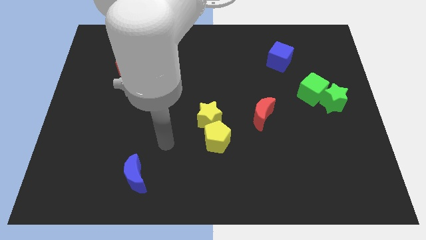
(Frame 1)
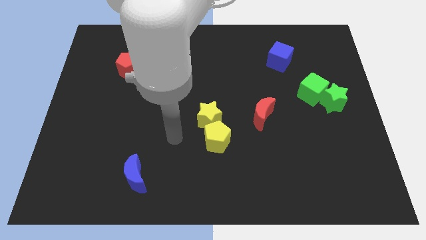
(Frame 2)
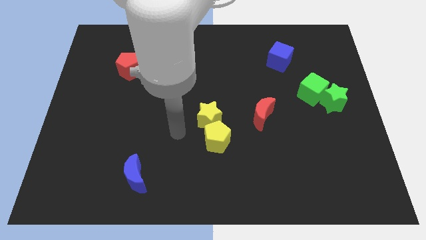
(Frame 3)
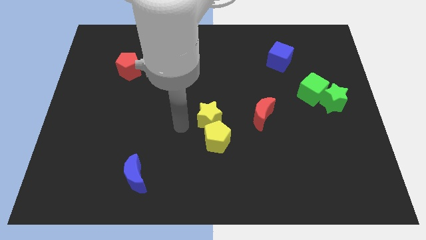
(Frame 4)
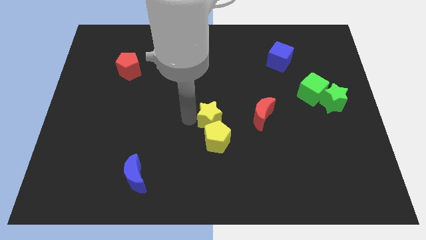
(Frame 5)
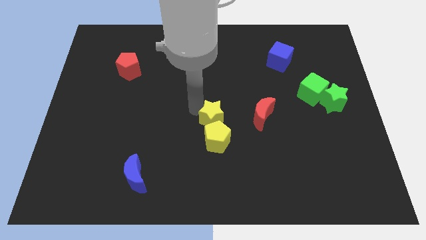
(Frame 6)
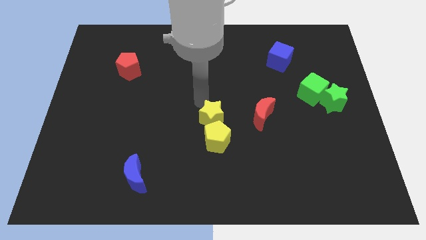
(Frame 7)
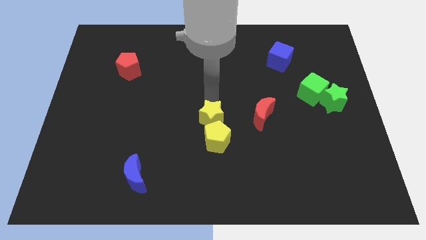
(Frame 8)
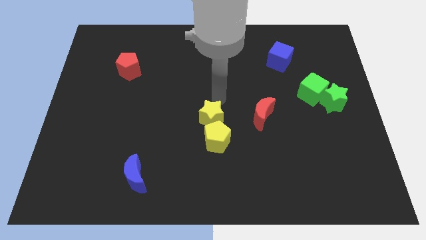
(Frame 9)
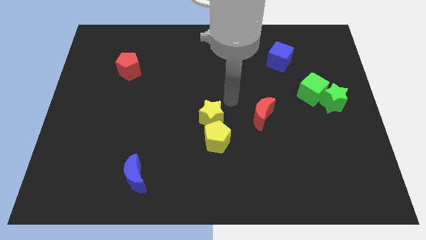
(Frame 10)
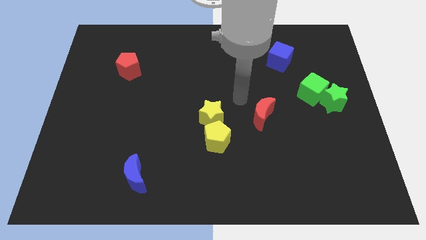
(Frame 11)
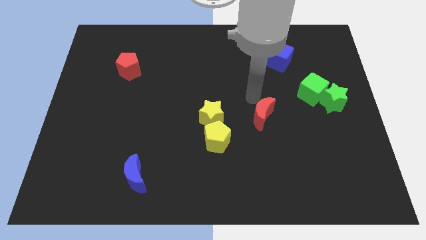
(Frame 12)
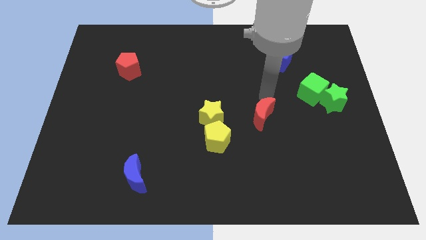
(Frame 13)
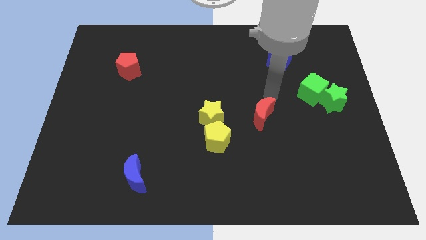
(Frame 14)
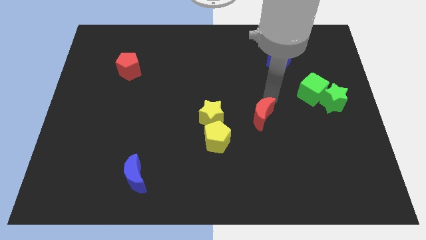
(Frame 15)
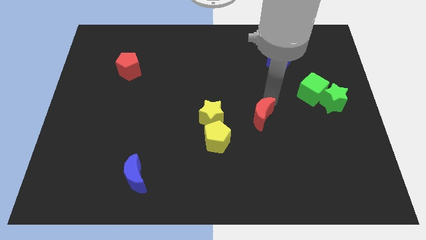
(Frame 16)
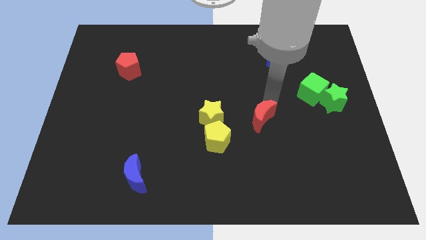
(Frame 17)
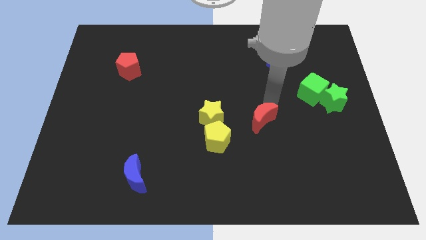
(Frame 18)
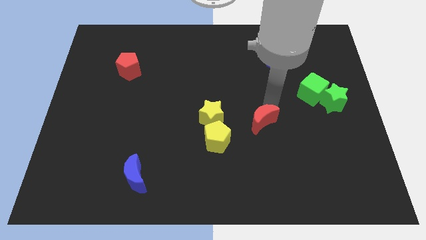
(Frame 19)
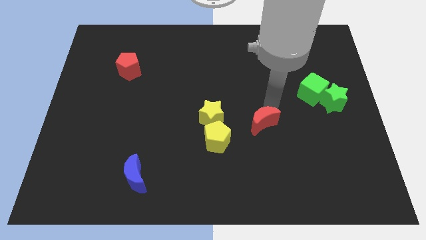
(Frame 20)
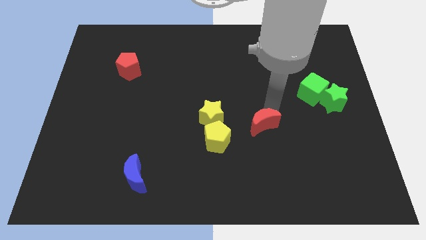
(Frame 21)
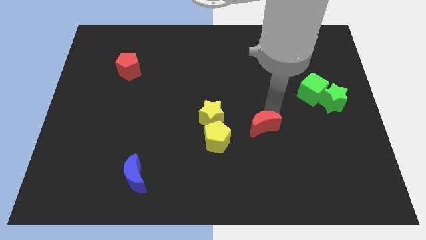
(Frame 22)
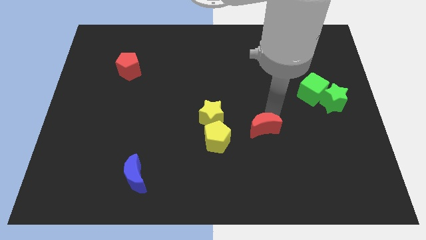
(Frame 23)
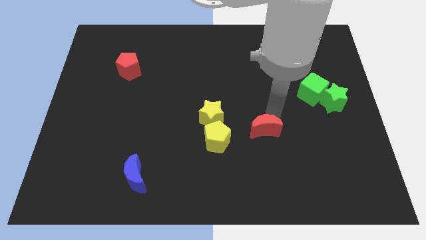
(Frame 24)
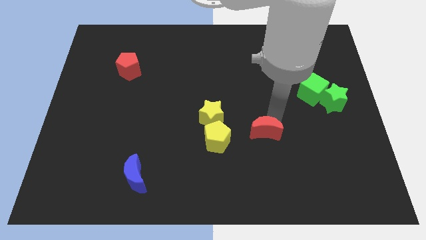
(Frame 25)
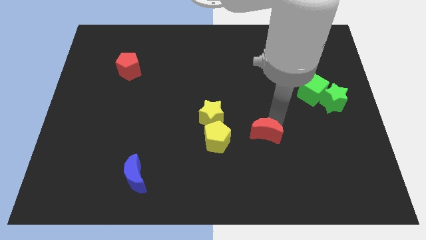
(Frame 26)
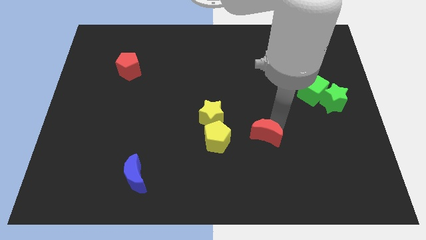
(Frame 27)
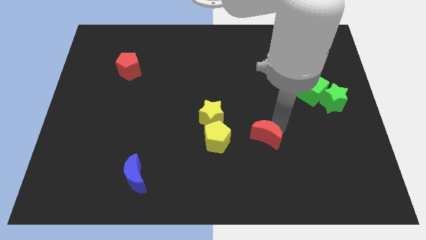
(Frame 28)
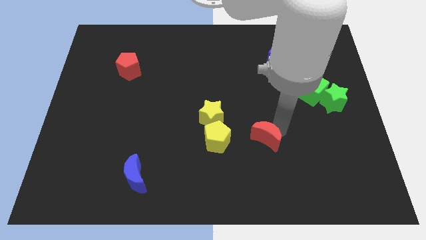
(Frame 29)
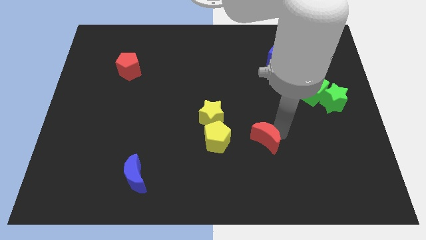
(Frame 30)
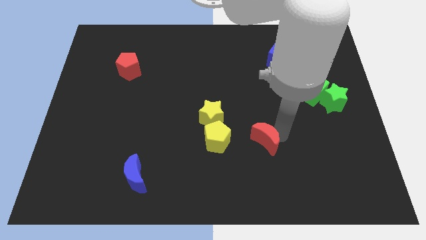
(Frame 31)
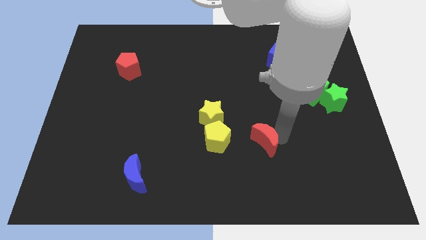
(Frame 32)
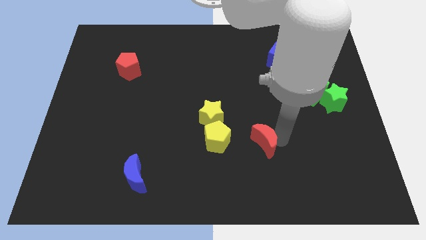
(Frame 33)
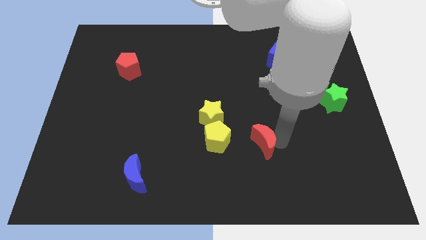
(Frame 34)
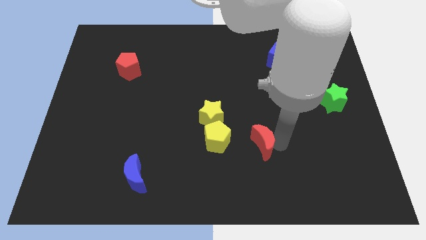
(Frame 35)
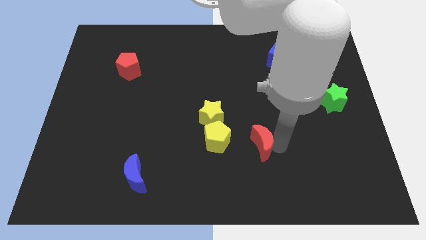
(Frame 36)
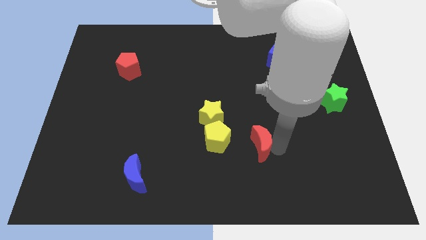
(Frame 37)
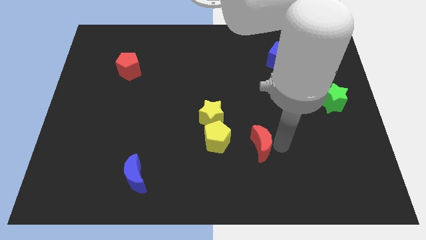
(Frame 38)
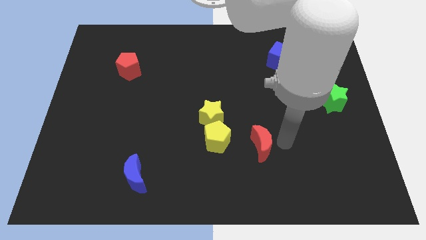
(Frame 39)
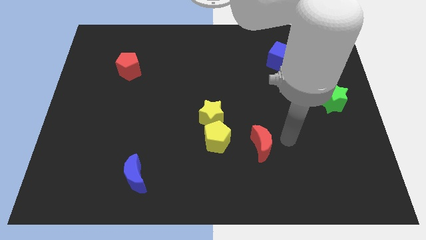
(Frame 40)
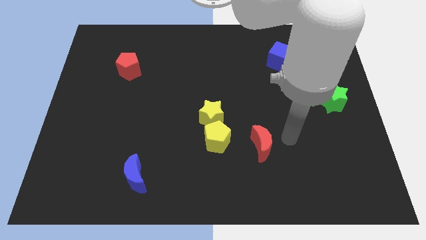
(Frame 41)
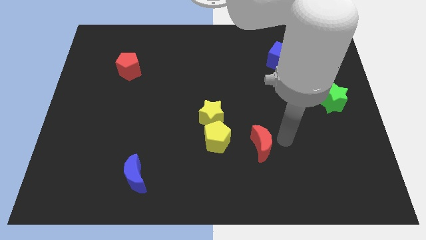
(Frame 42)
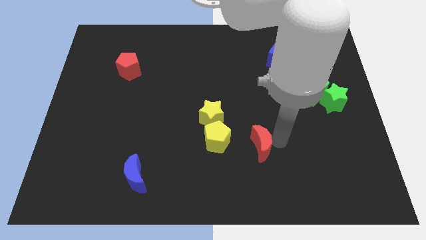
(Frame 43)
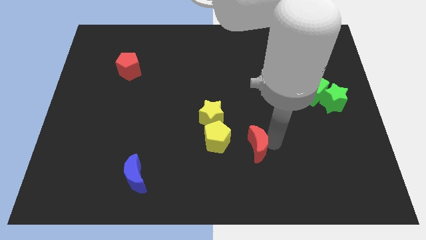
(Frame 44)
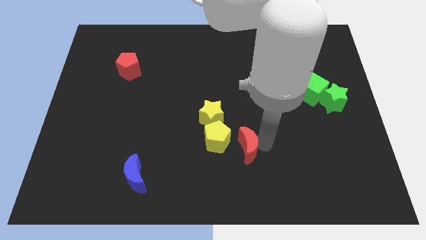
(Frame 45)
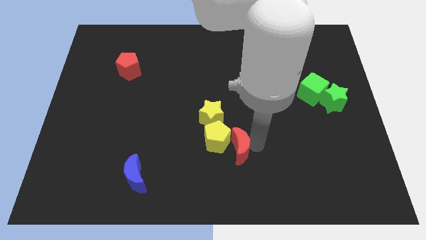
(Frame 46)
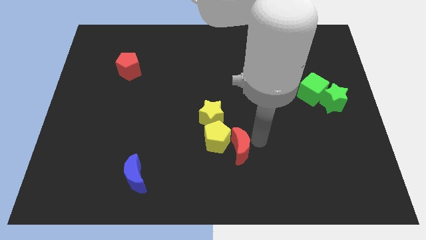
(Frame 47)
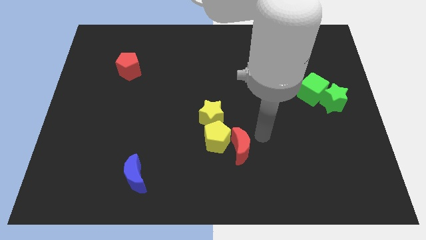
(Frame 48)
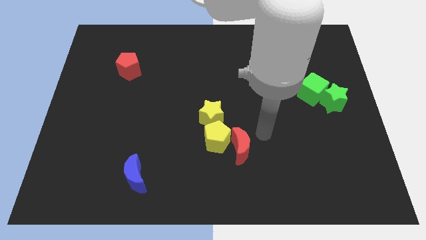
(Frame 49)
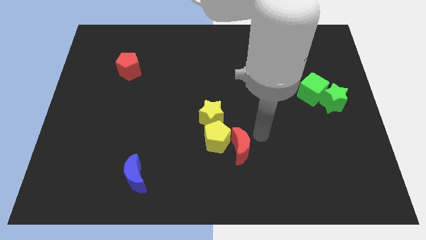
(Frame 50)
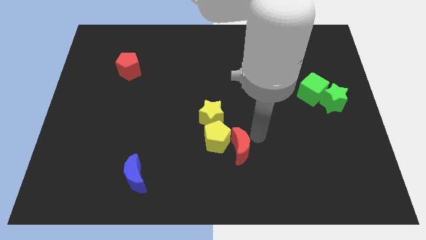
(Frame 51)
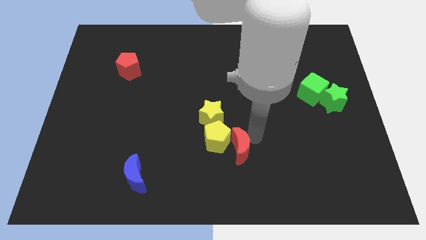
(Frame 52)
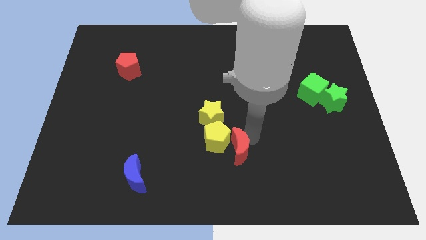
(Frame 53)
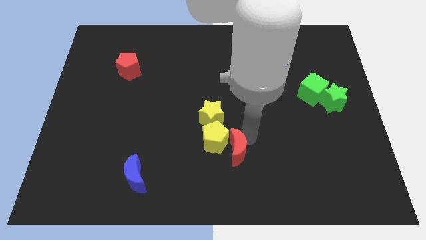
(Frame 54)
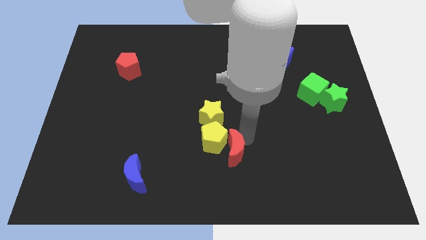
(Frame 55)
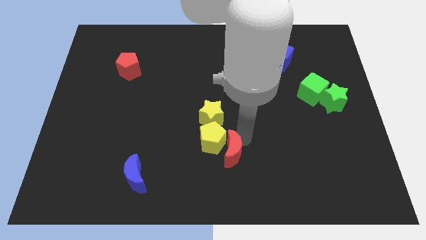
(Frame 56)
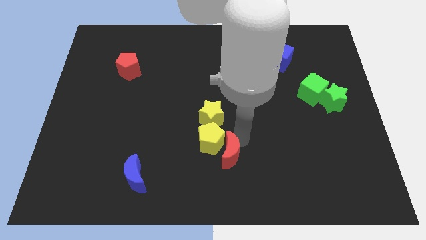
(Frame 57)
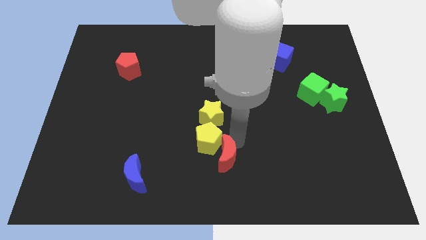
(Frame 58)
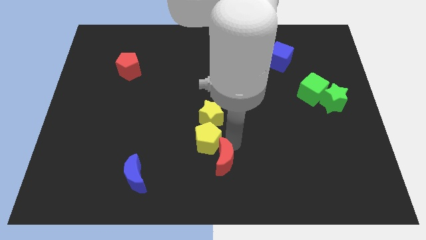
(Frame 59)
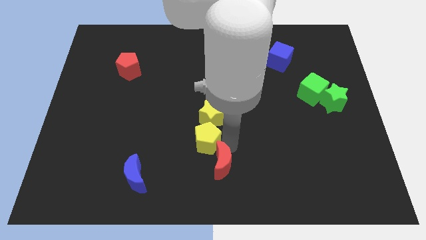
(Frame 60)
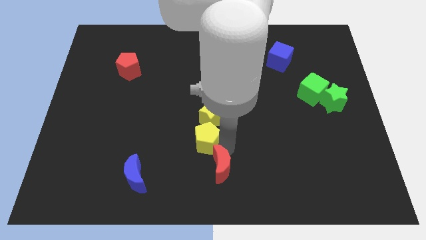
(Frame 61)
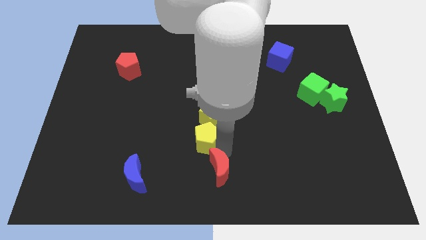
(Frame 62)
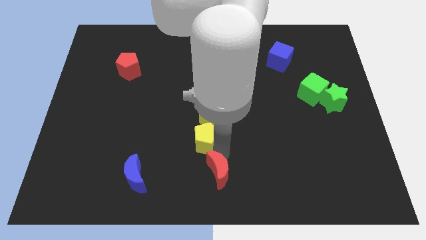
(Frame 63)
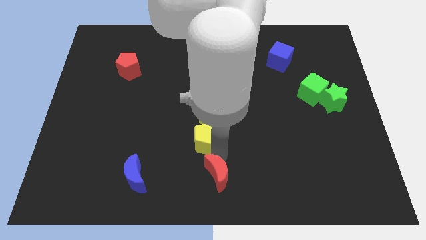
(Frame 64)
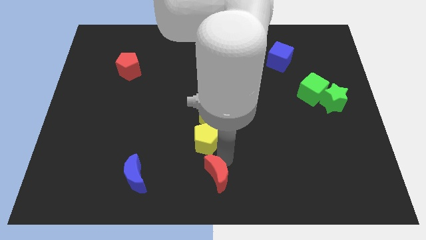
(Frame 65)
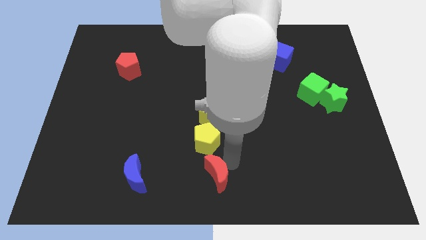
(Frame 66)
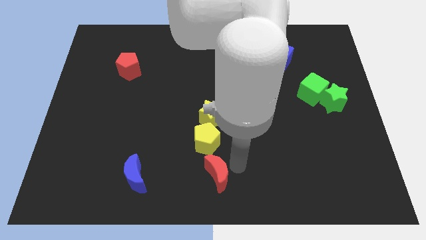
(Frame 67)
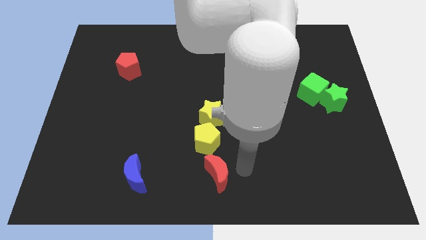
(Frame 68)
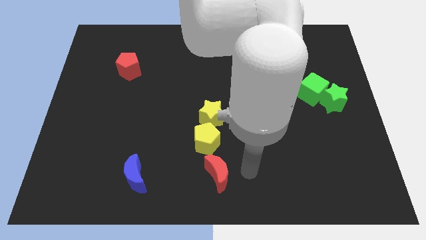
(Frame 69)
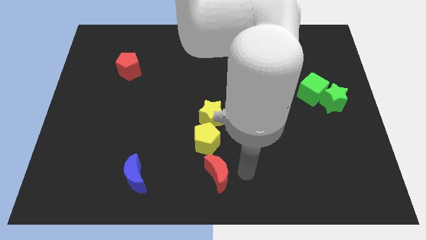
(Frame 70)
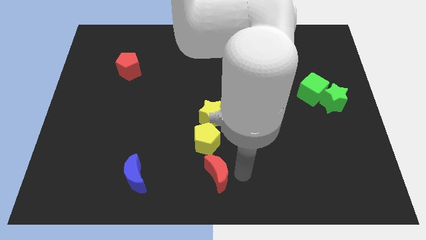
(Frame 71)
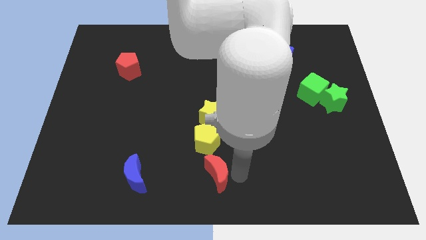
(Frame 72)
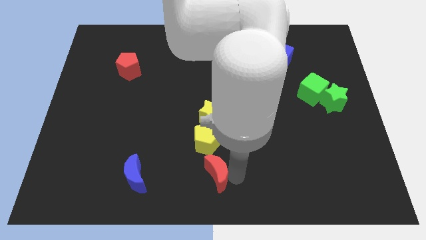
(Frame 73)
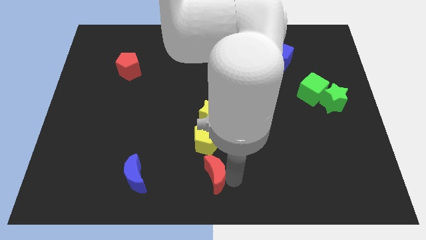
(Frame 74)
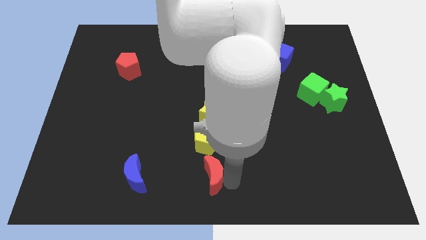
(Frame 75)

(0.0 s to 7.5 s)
slide the red moon just right of the blue moon
